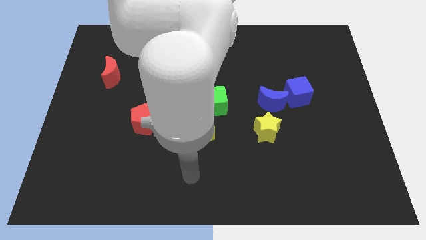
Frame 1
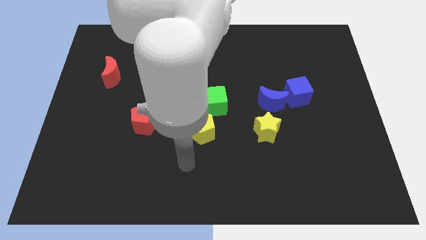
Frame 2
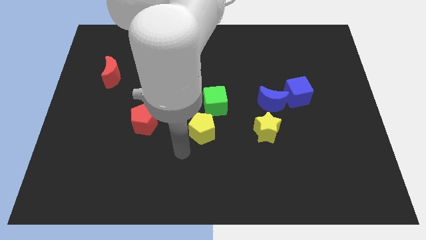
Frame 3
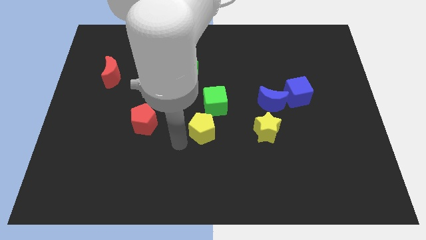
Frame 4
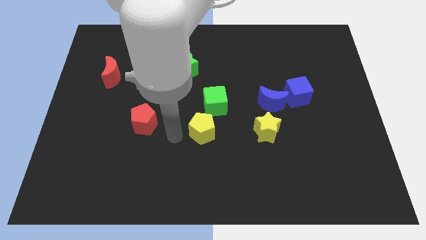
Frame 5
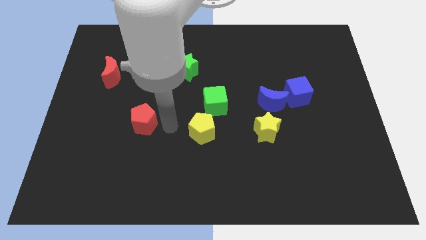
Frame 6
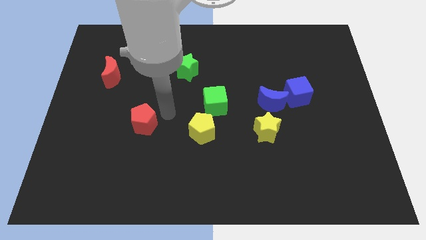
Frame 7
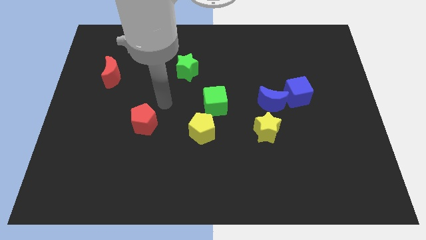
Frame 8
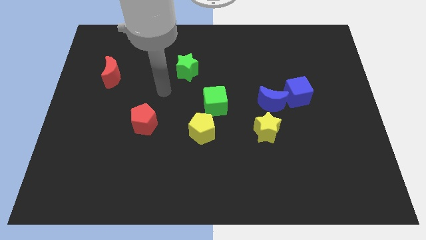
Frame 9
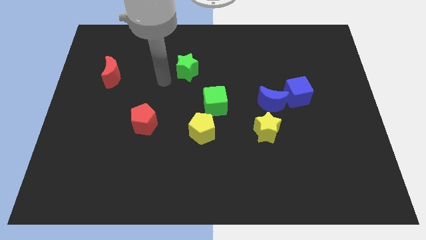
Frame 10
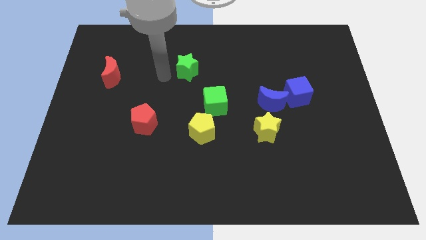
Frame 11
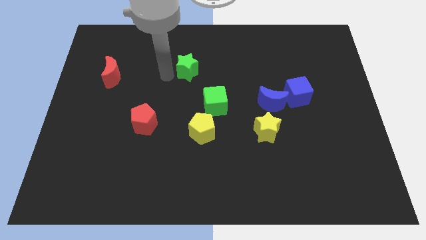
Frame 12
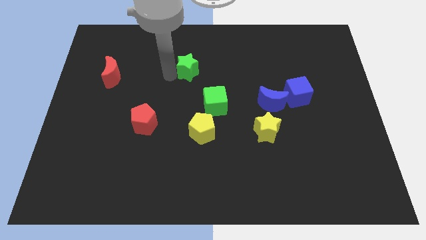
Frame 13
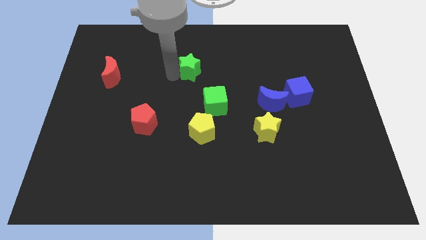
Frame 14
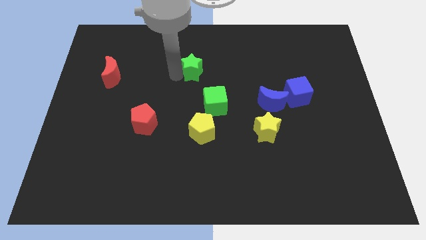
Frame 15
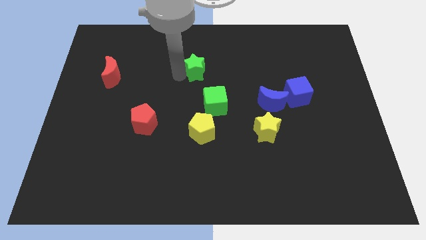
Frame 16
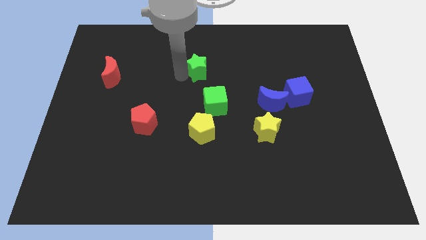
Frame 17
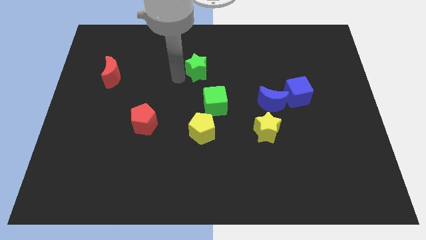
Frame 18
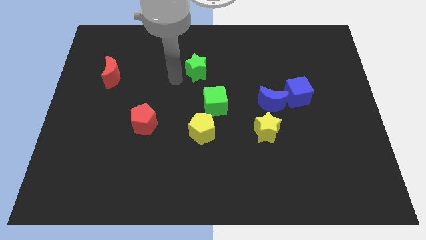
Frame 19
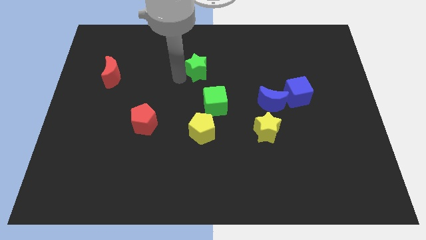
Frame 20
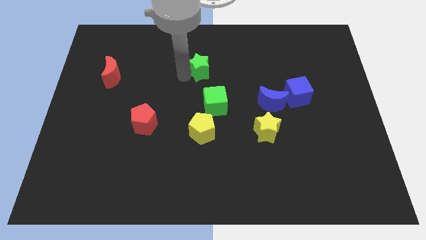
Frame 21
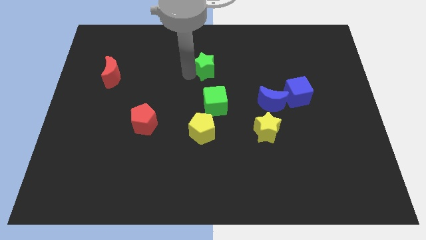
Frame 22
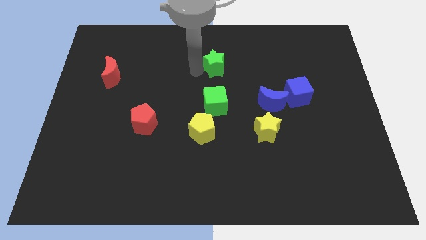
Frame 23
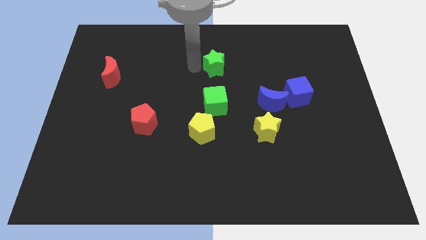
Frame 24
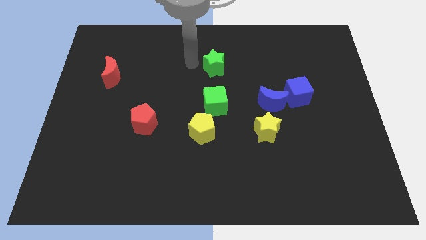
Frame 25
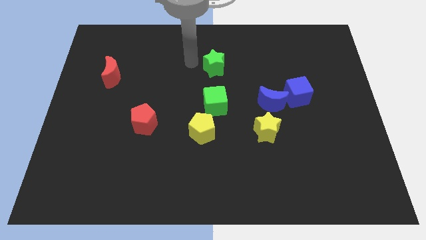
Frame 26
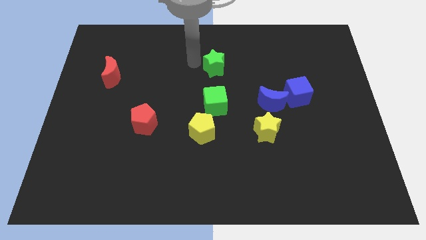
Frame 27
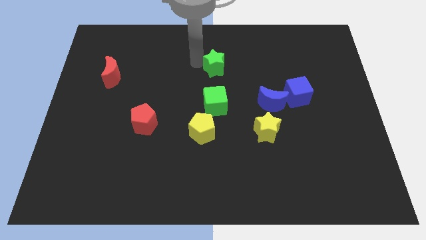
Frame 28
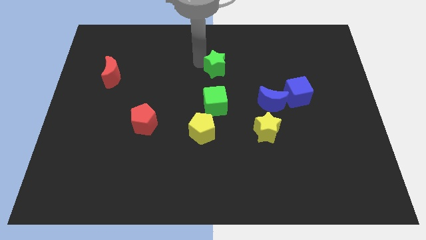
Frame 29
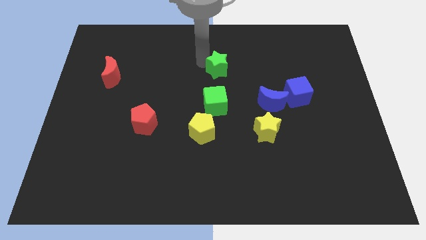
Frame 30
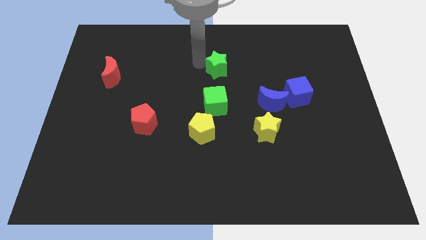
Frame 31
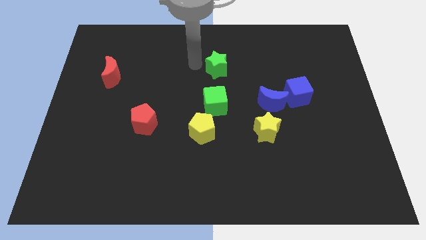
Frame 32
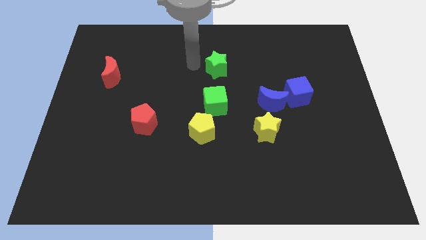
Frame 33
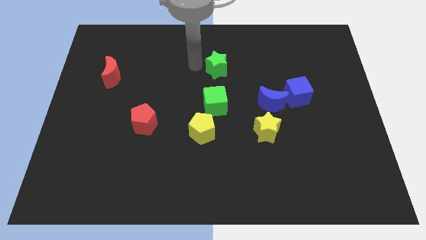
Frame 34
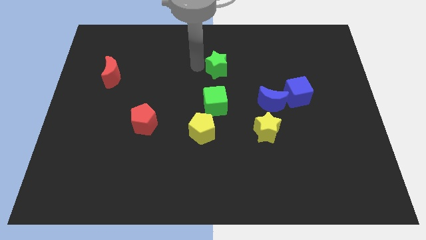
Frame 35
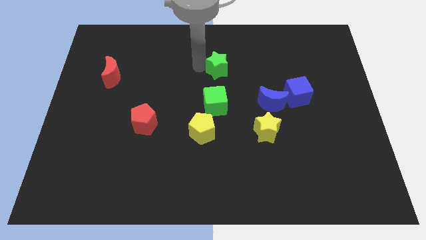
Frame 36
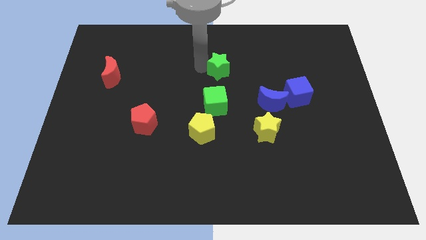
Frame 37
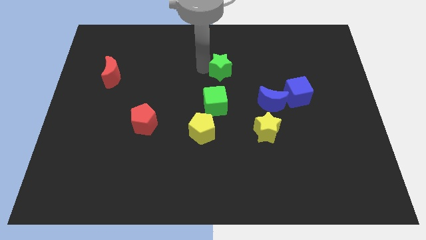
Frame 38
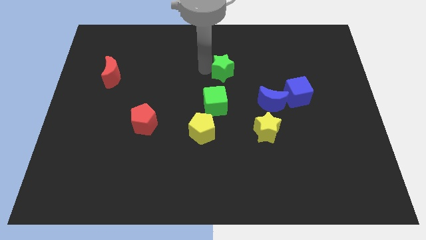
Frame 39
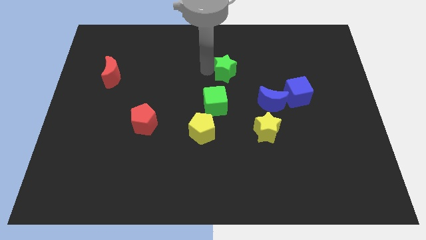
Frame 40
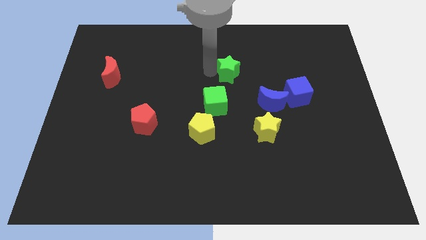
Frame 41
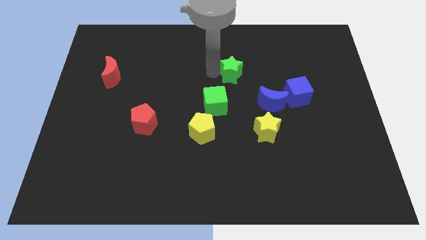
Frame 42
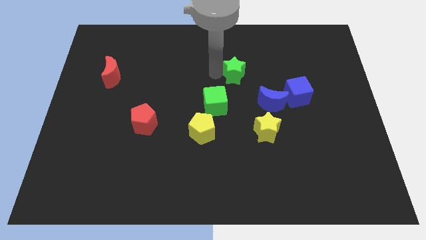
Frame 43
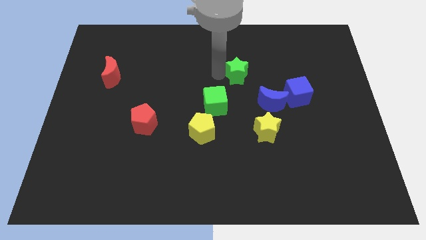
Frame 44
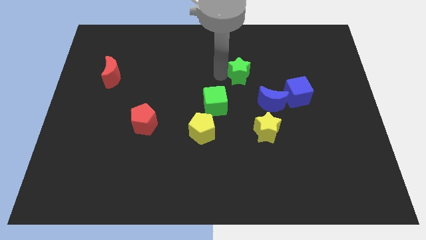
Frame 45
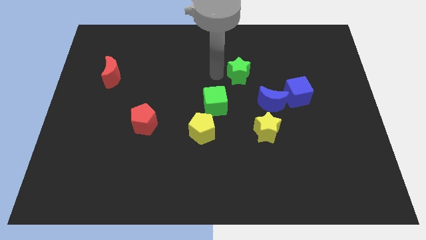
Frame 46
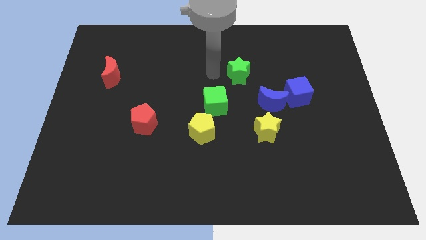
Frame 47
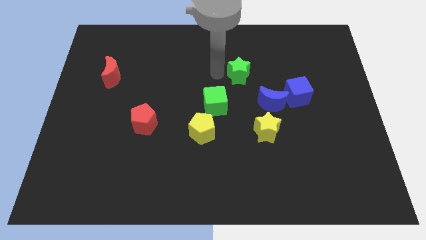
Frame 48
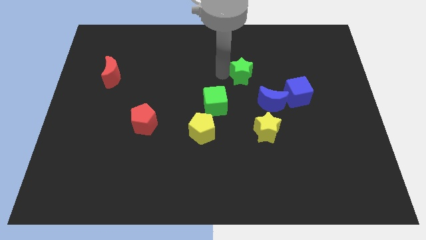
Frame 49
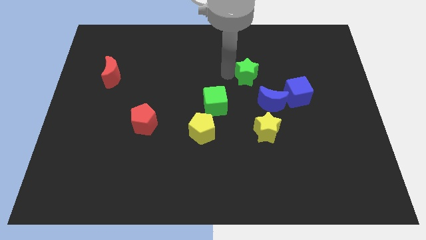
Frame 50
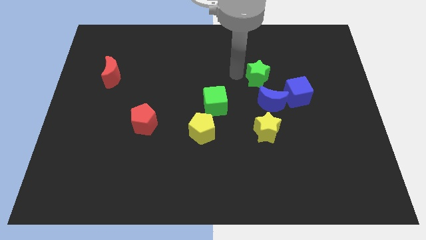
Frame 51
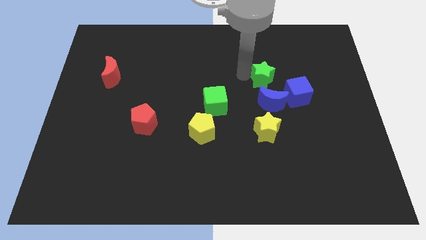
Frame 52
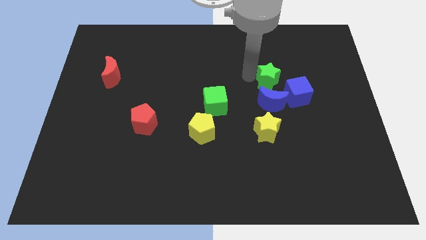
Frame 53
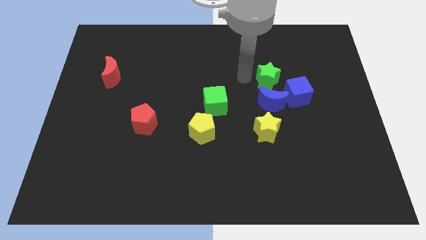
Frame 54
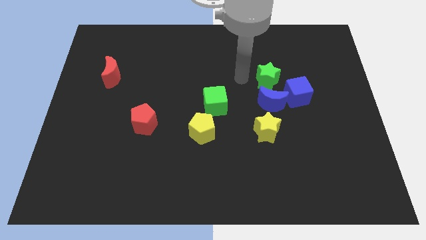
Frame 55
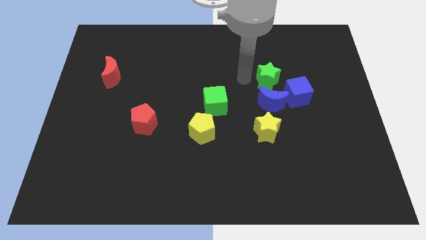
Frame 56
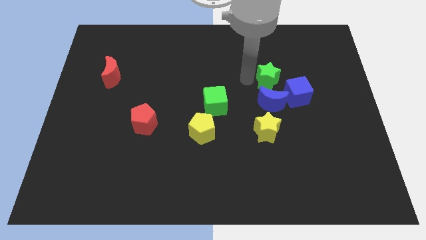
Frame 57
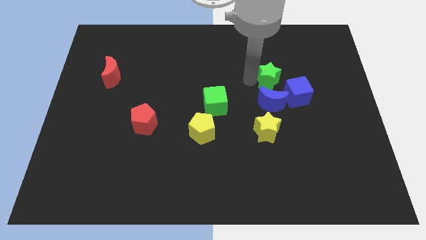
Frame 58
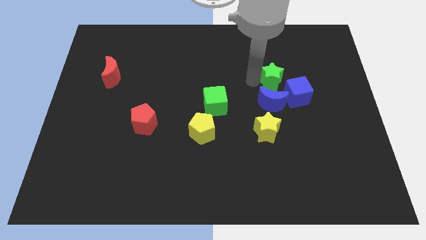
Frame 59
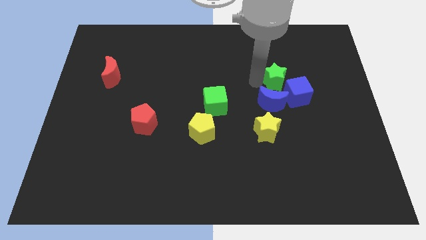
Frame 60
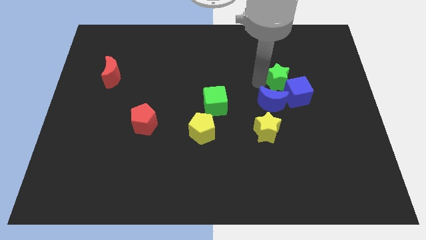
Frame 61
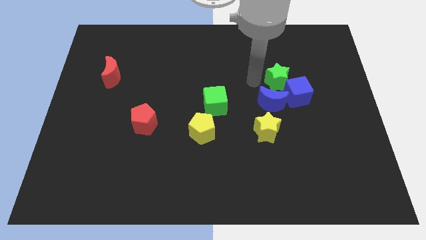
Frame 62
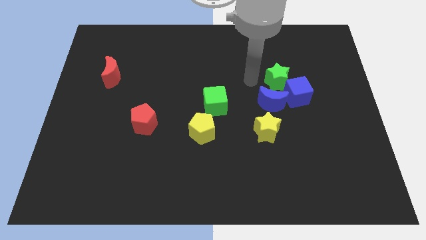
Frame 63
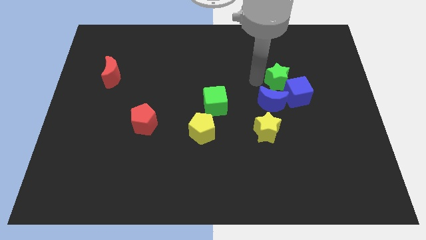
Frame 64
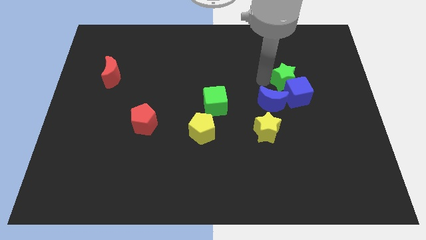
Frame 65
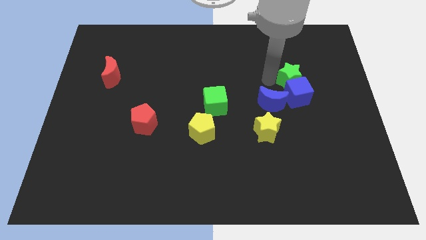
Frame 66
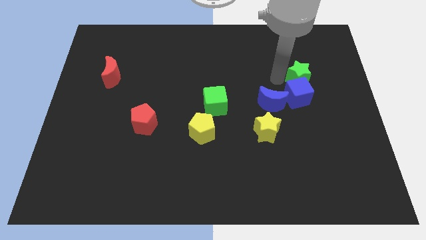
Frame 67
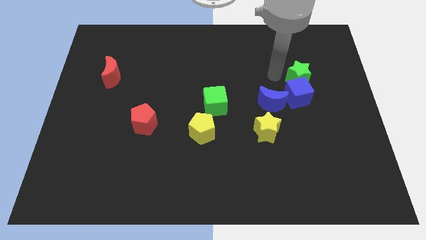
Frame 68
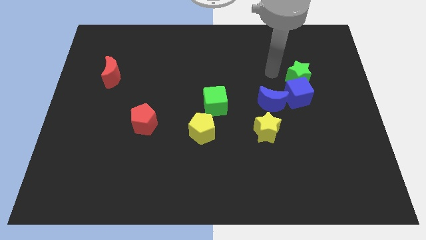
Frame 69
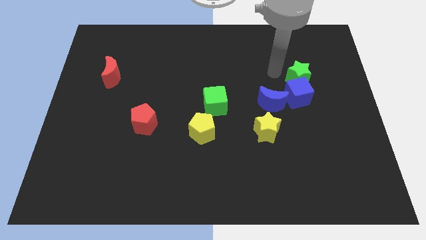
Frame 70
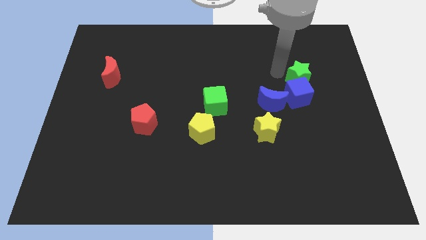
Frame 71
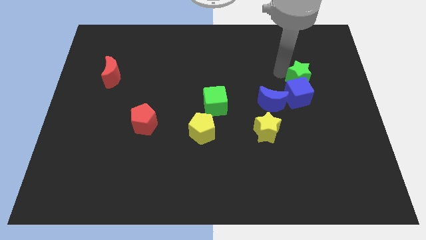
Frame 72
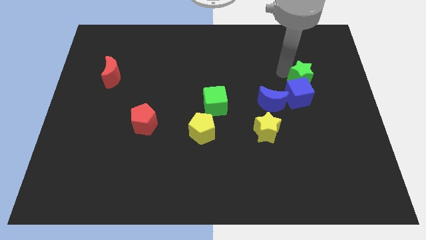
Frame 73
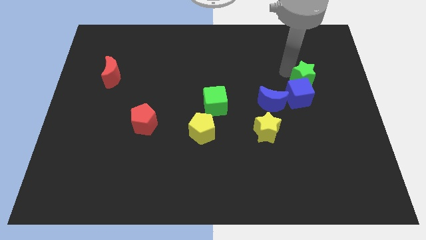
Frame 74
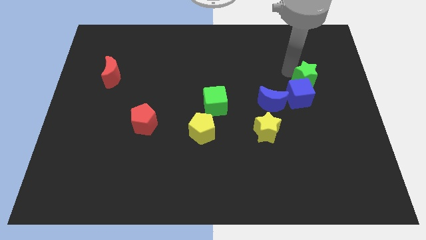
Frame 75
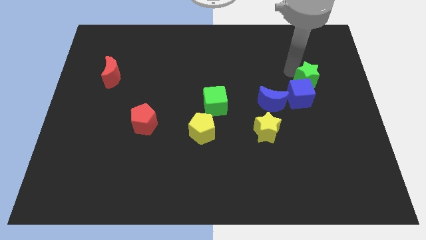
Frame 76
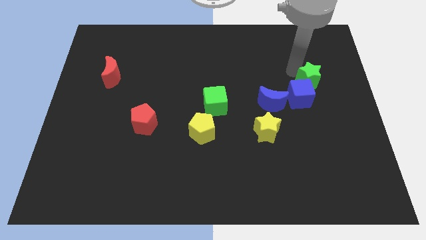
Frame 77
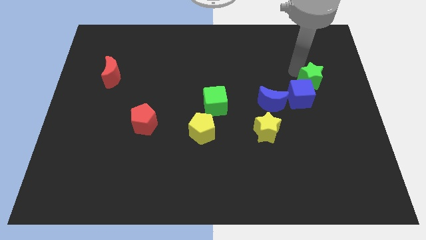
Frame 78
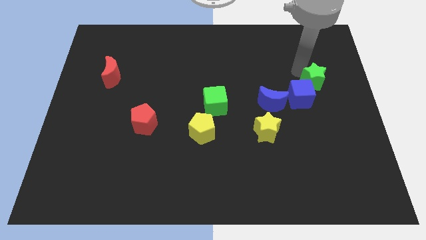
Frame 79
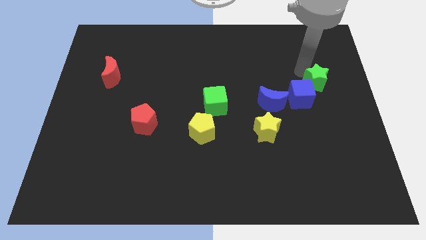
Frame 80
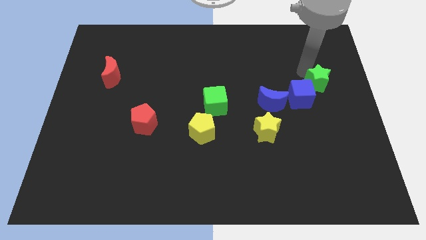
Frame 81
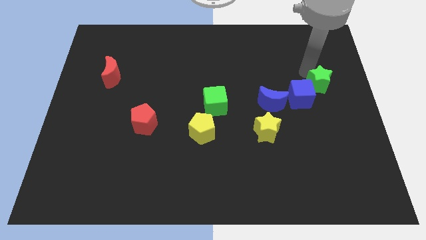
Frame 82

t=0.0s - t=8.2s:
put the green star to the right side
